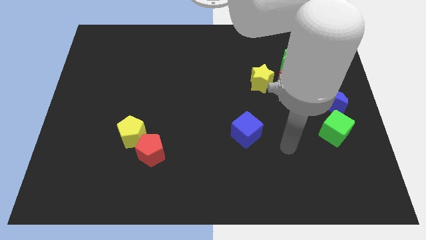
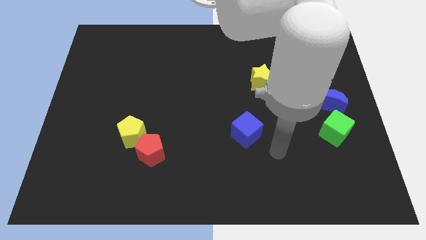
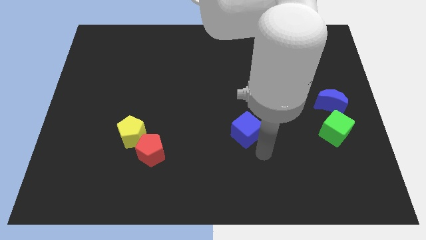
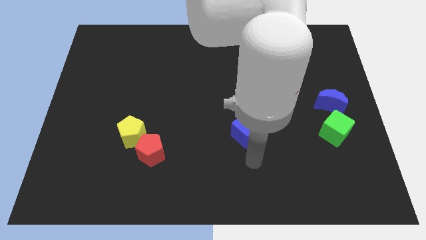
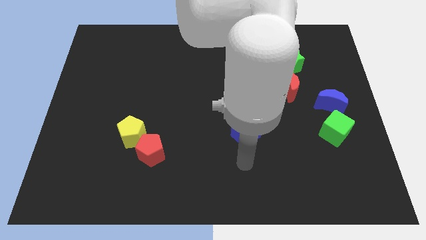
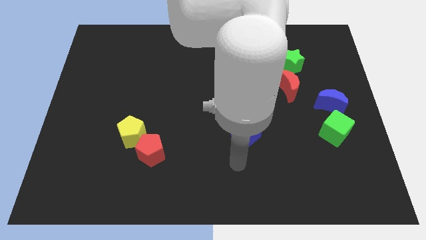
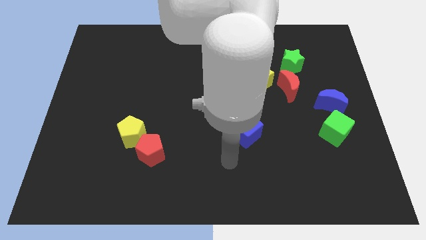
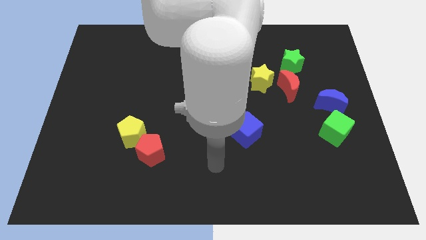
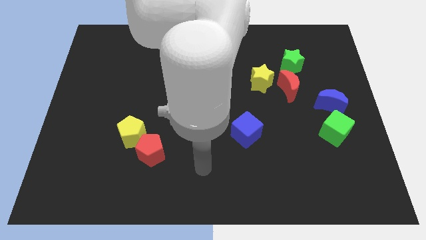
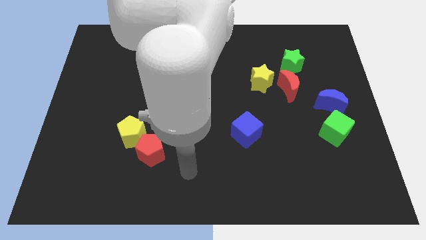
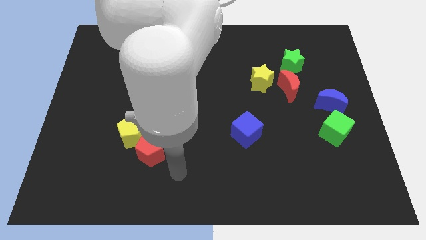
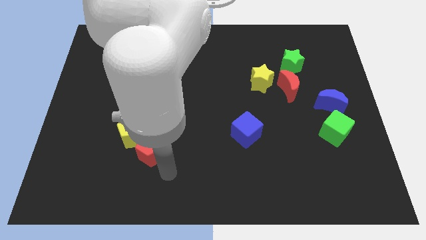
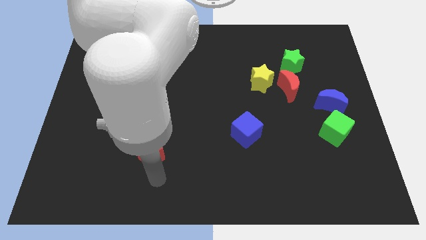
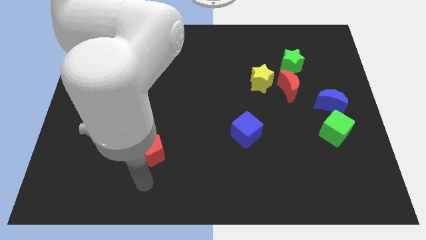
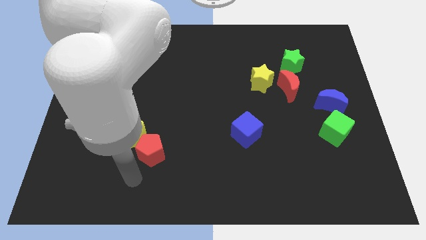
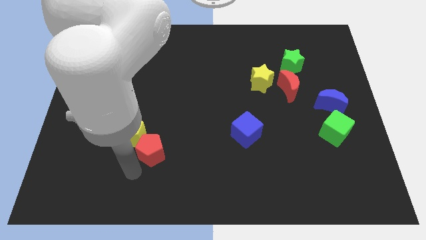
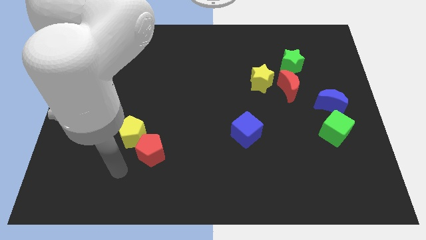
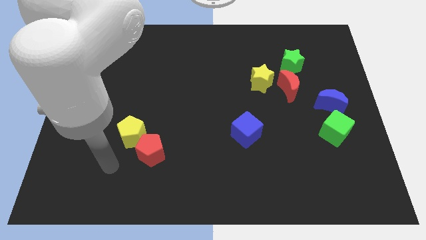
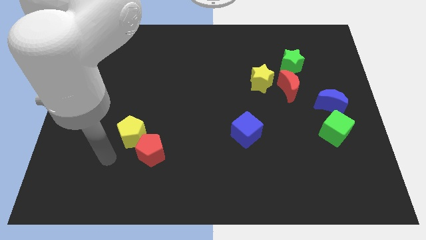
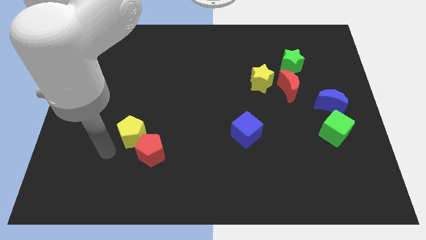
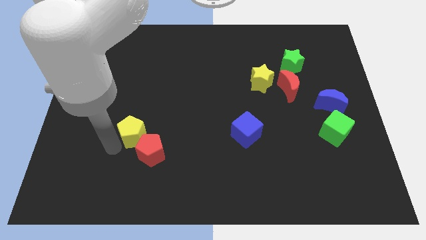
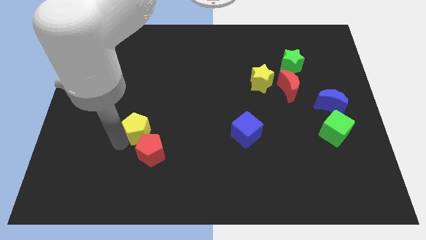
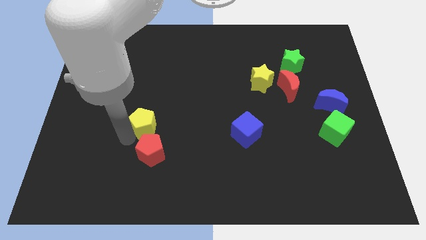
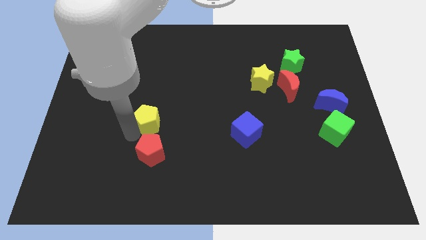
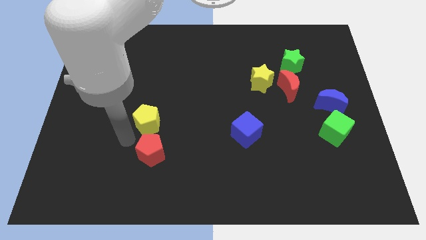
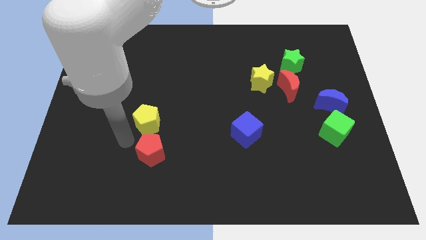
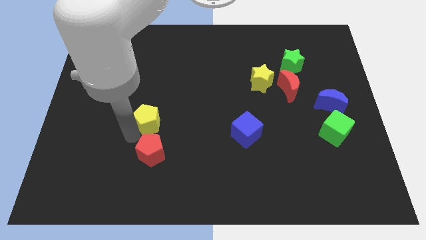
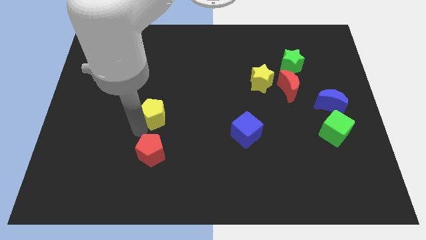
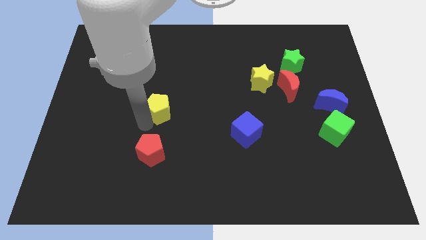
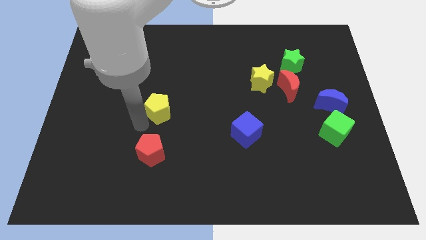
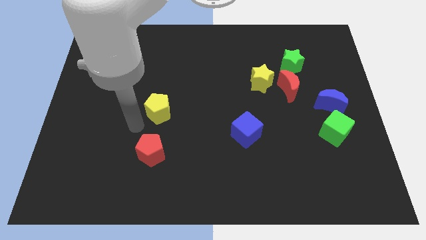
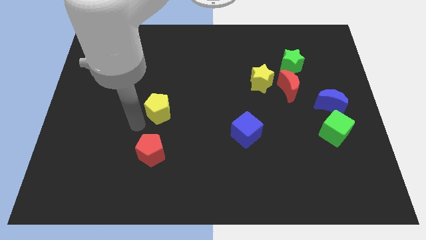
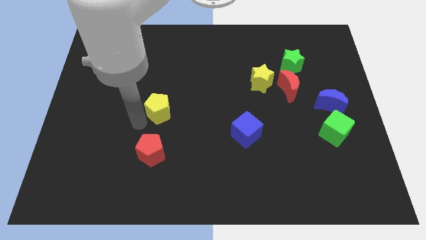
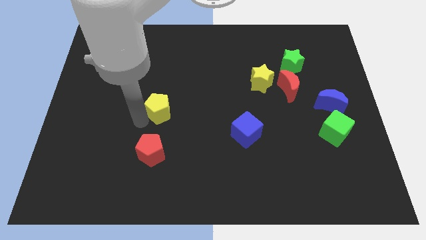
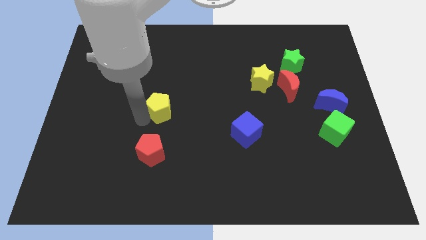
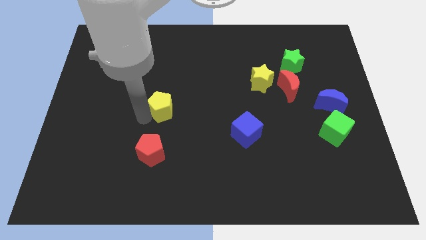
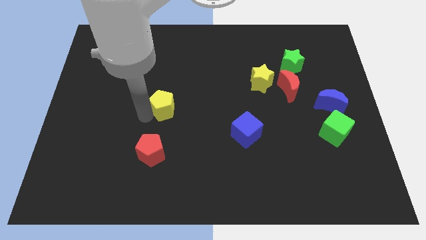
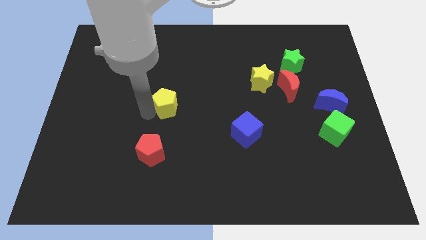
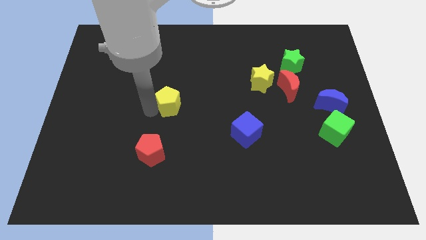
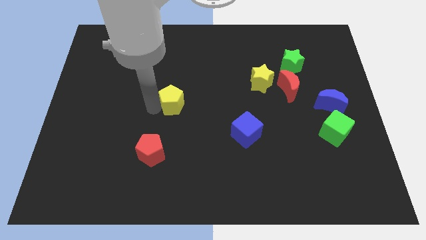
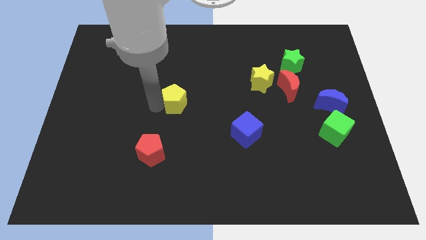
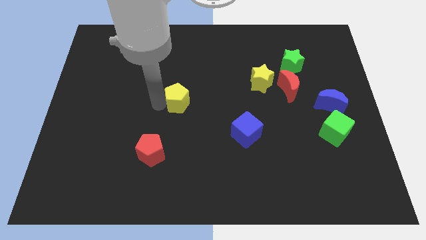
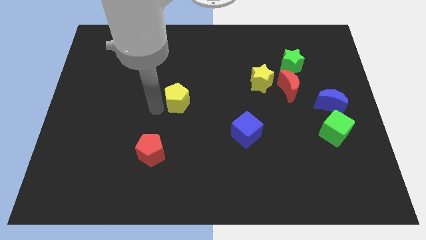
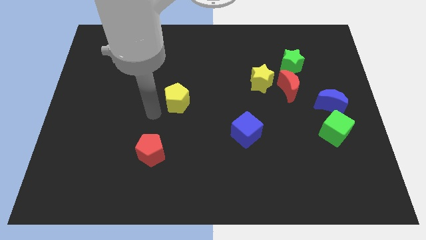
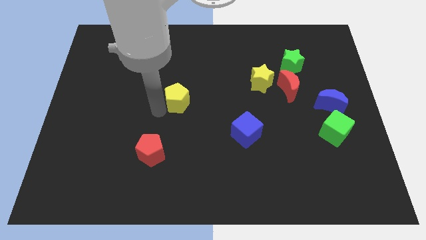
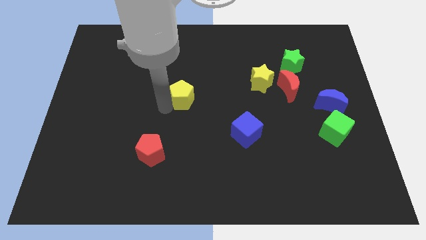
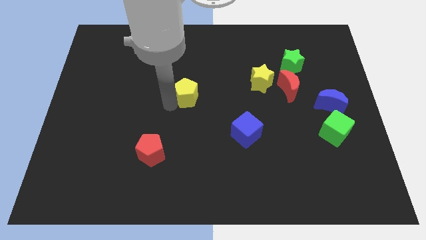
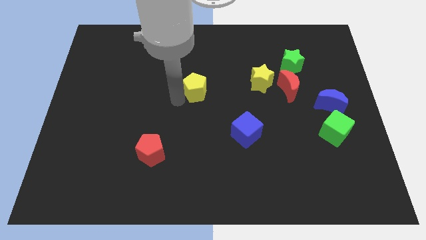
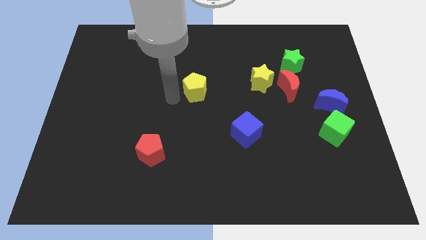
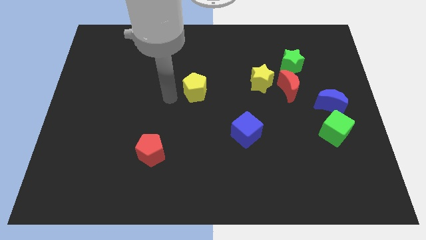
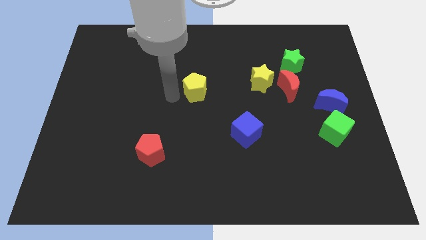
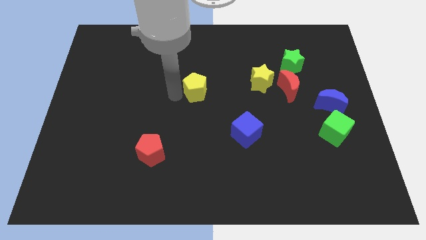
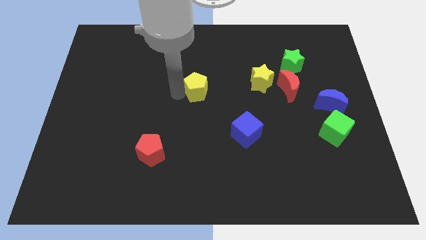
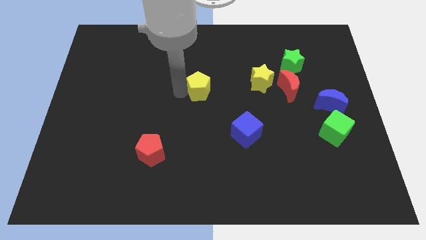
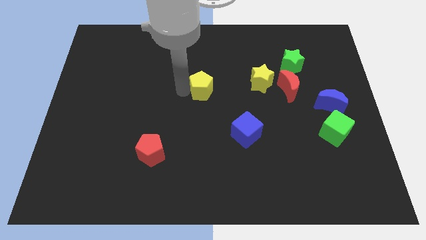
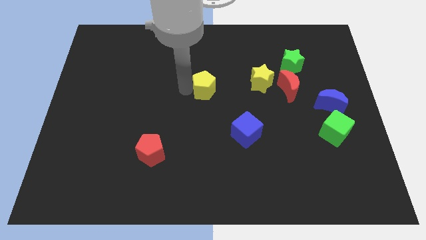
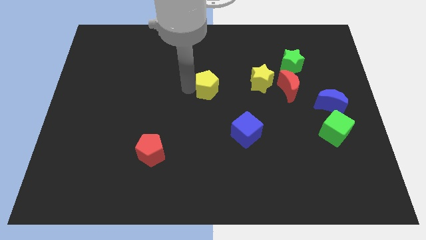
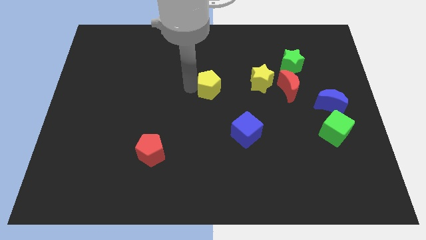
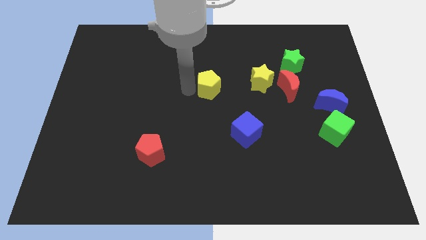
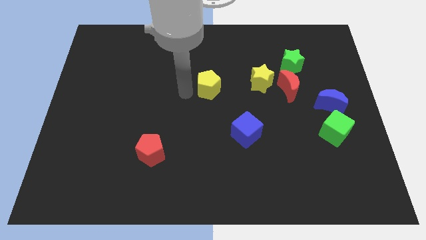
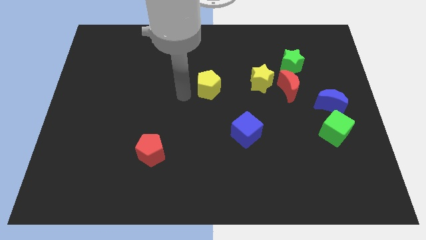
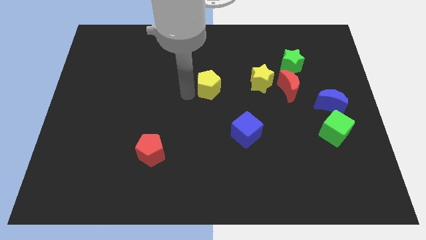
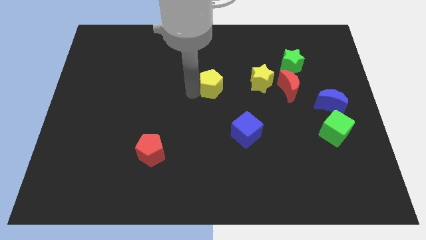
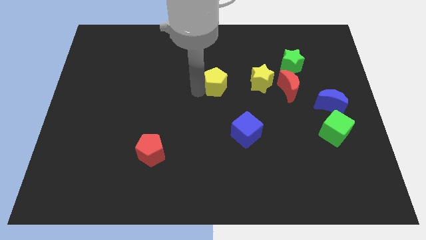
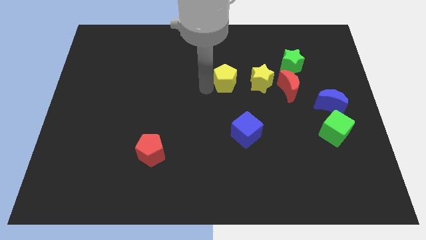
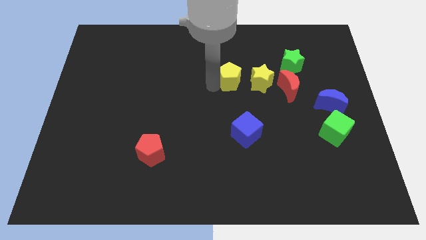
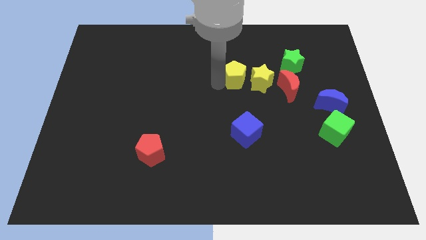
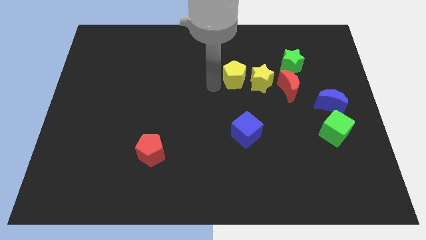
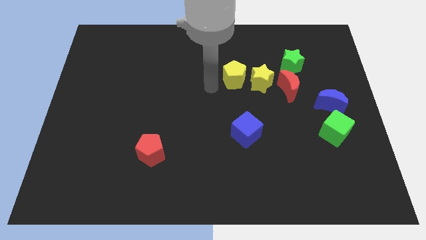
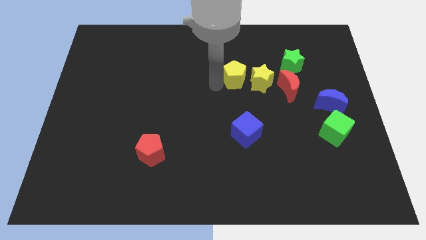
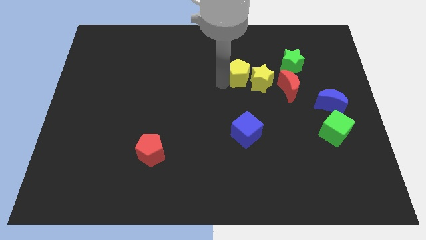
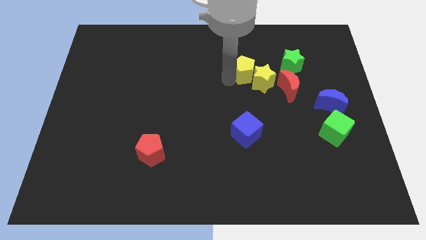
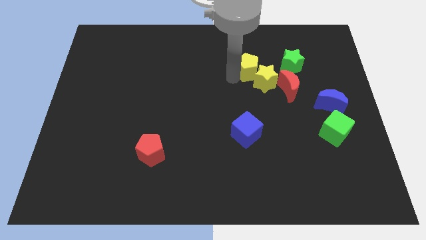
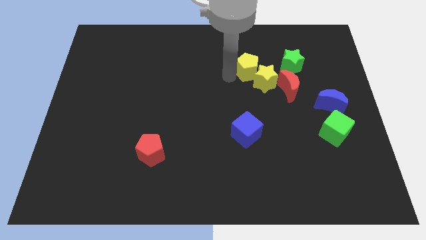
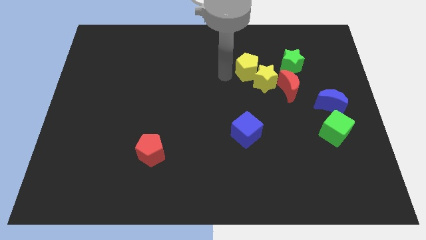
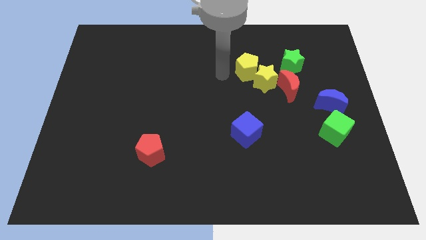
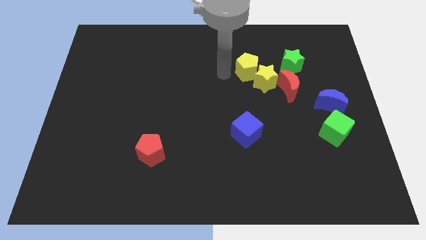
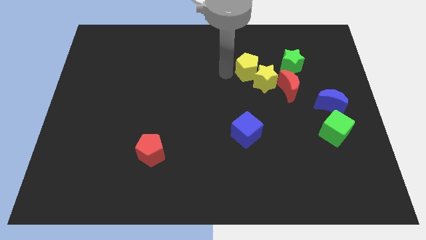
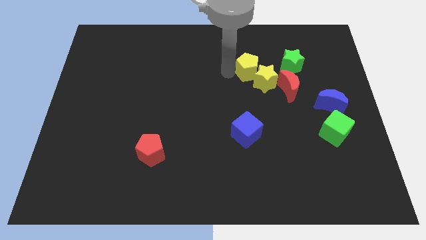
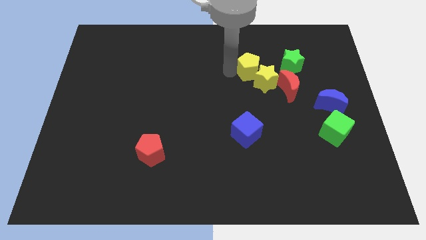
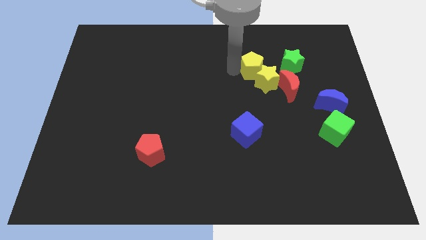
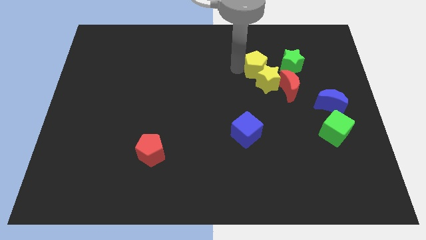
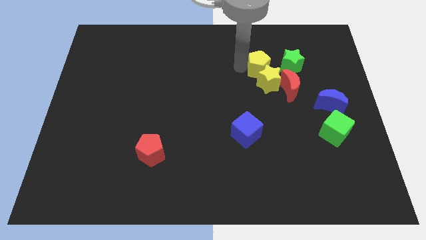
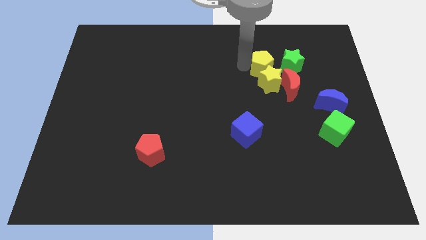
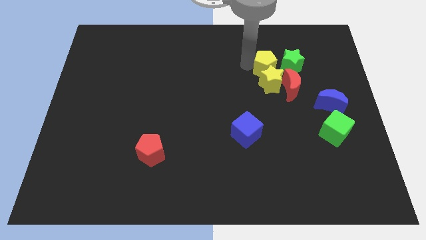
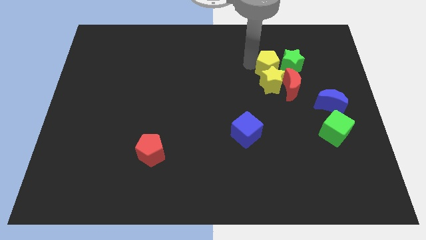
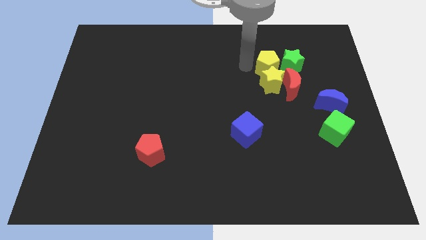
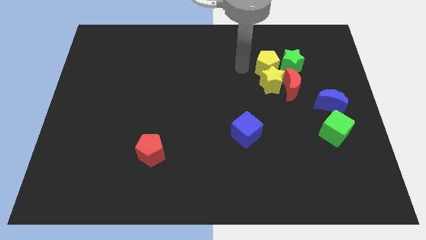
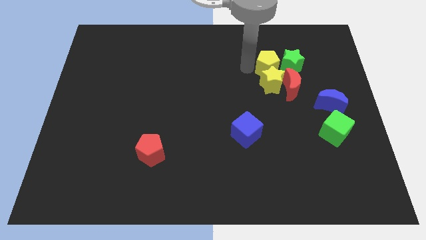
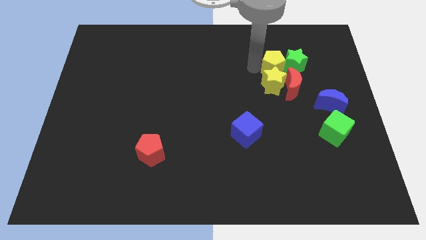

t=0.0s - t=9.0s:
put the yellow pentagon close to the green star
